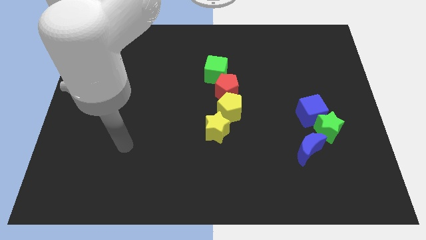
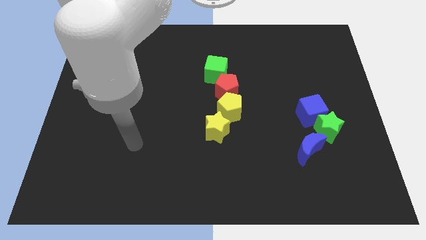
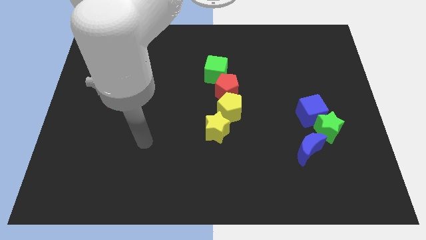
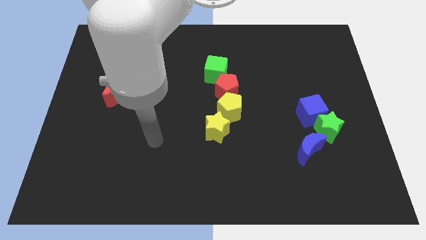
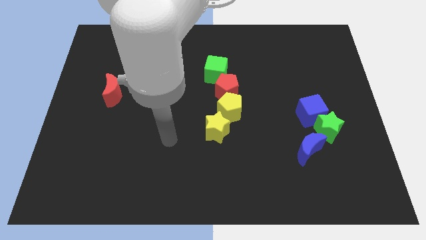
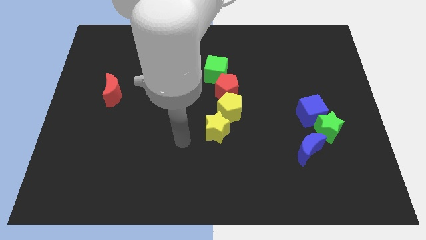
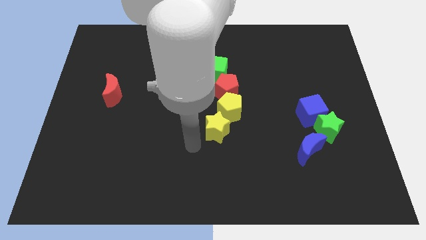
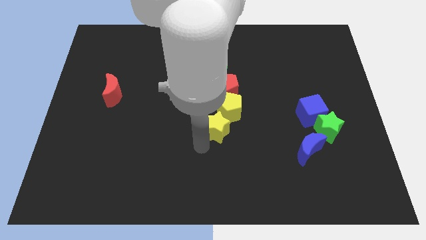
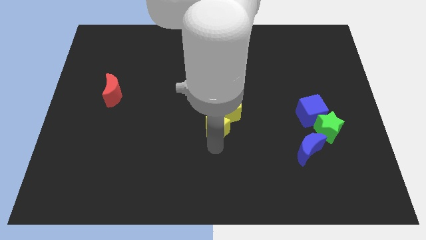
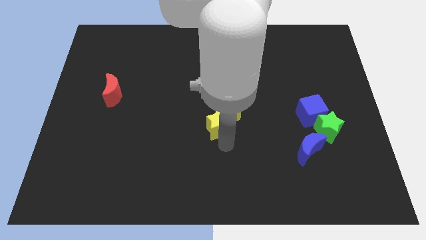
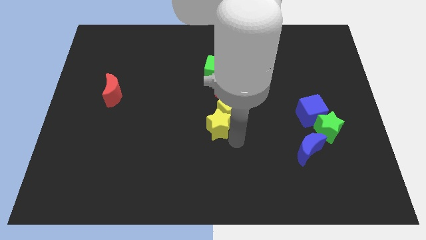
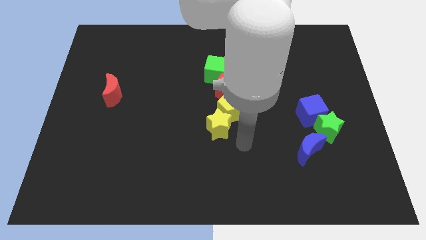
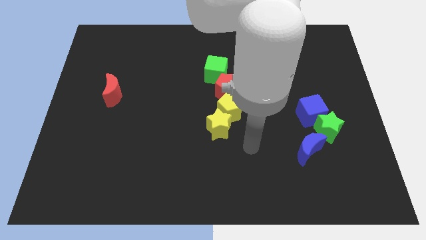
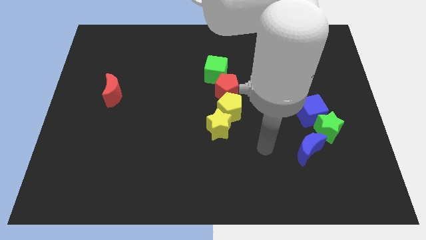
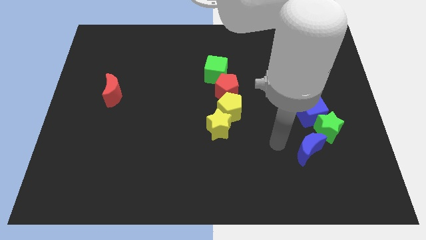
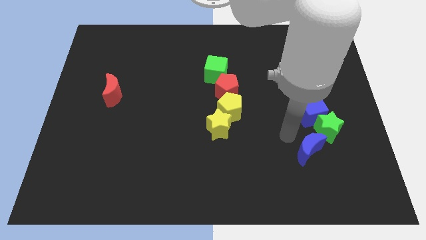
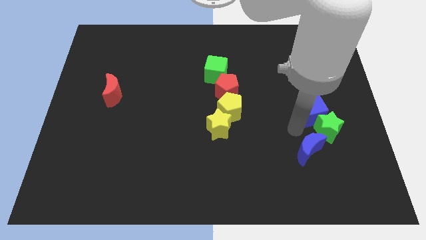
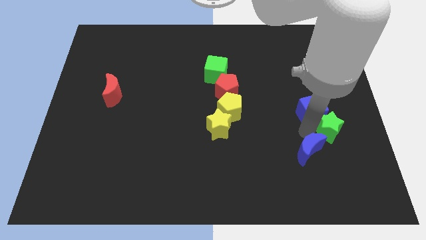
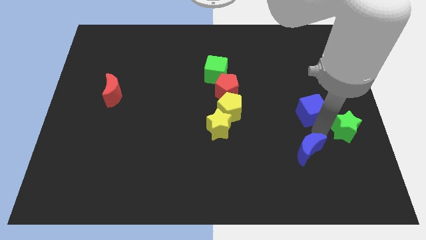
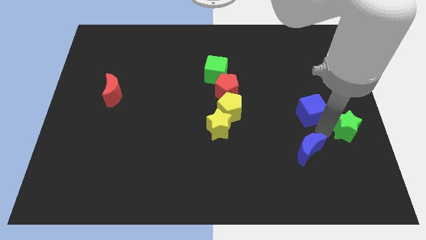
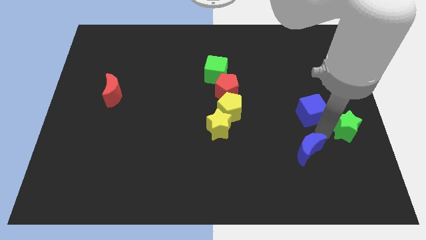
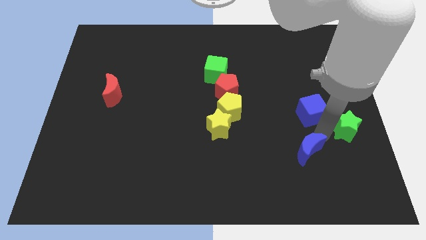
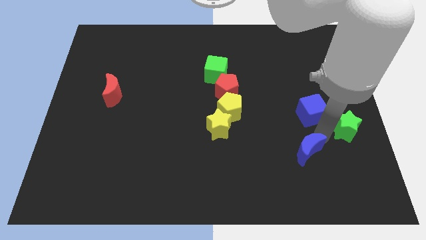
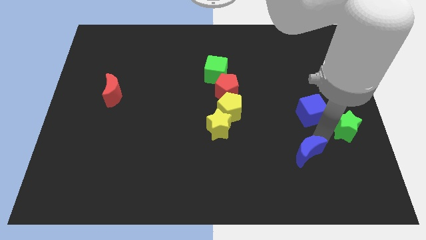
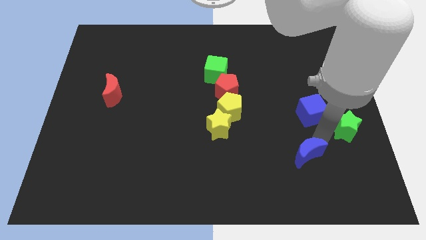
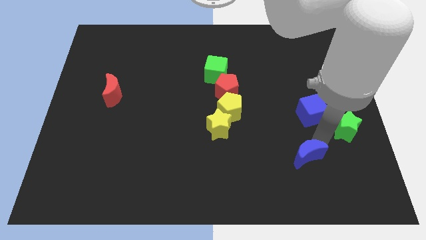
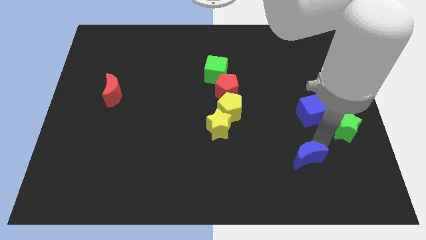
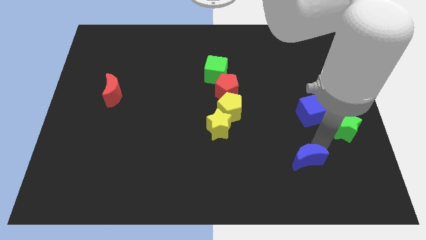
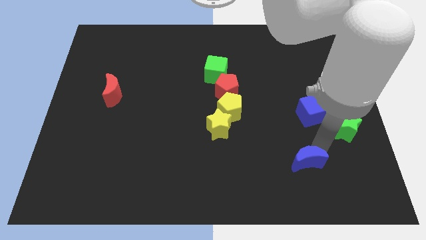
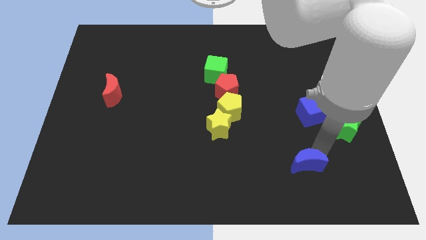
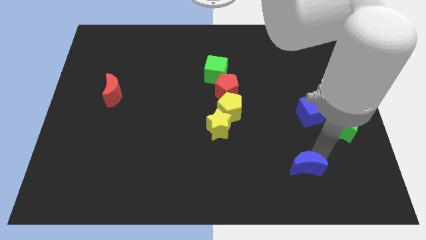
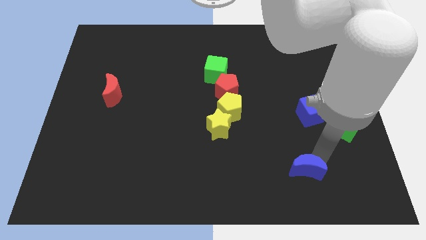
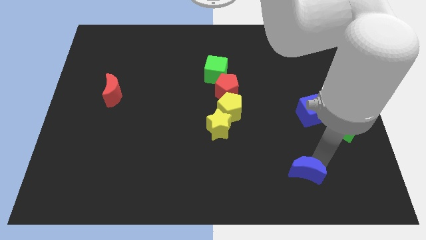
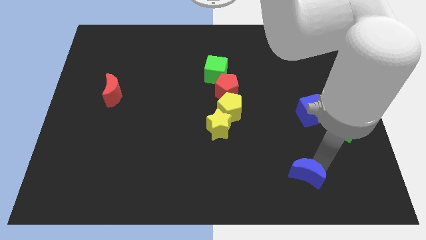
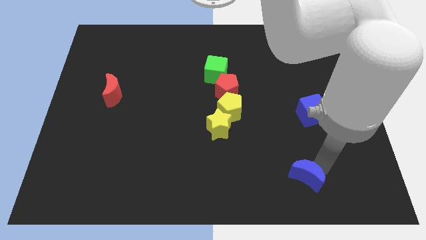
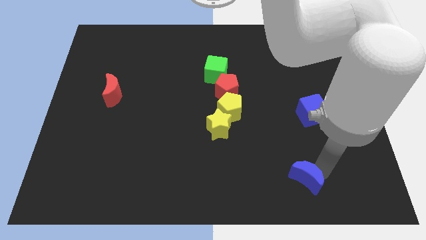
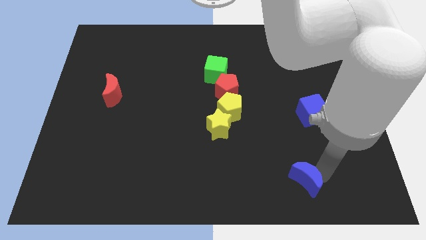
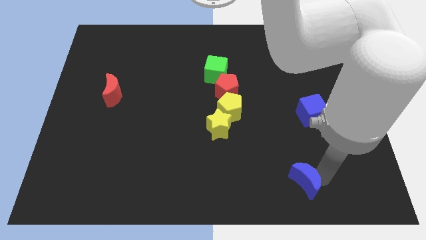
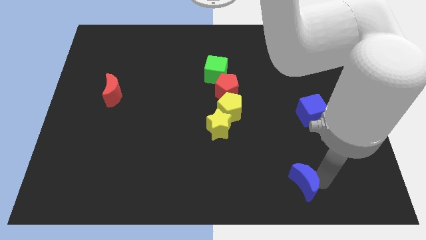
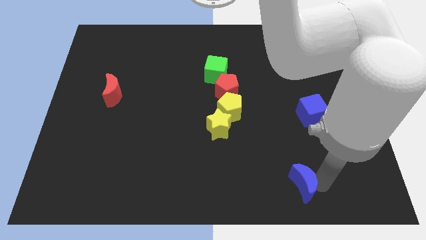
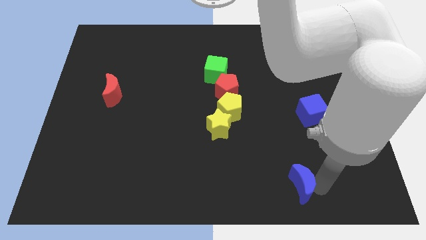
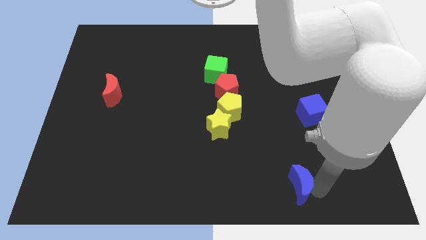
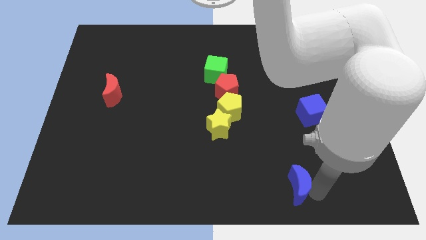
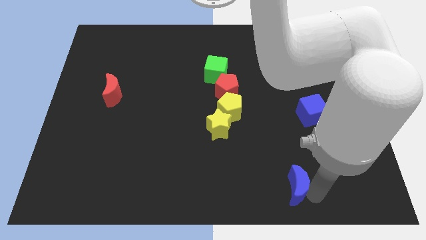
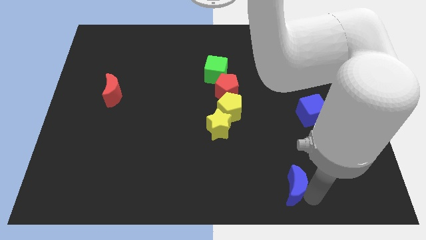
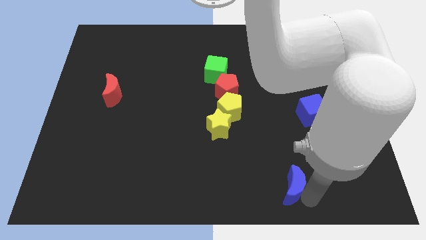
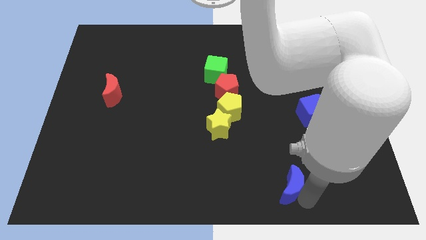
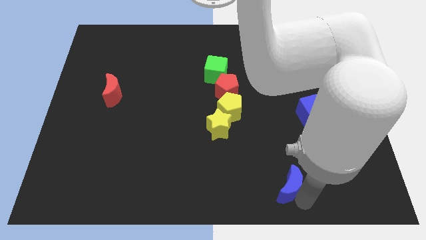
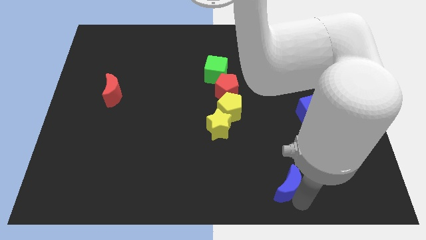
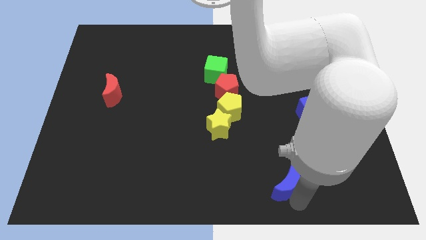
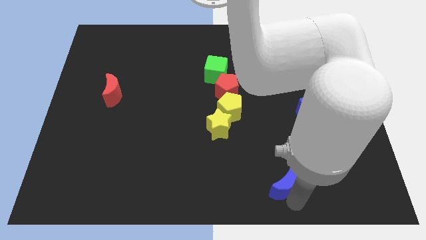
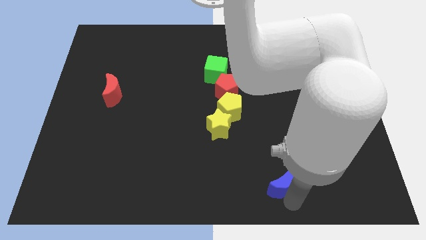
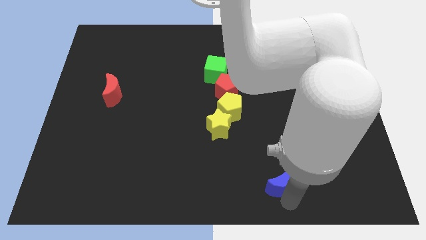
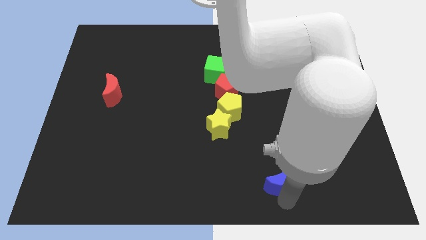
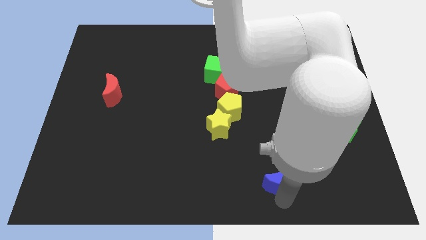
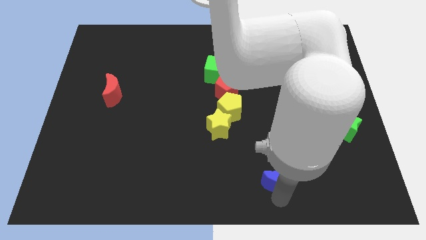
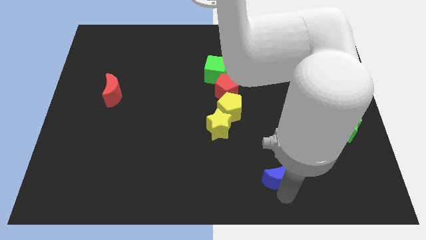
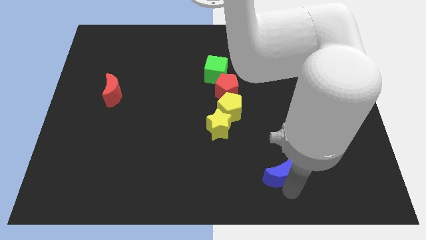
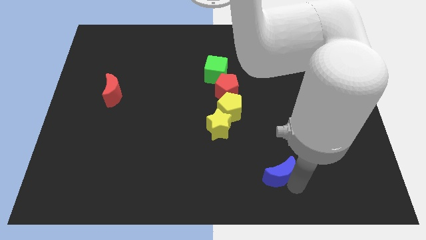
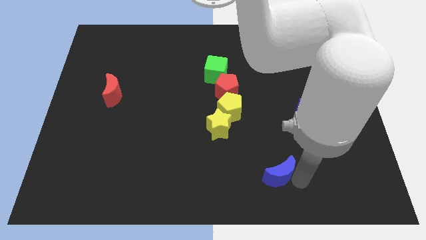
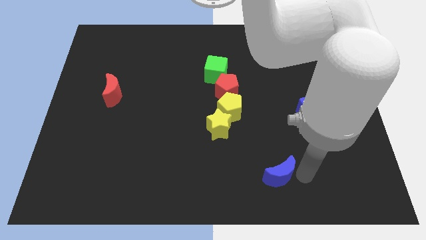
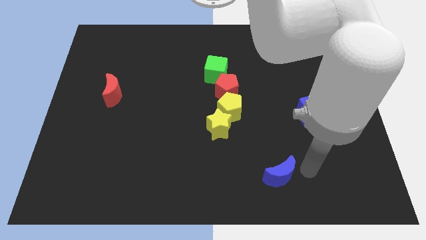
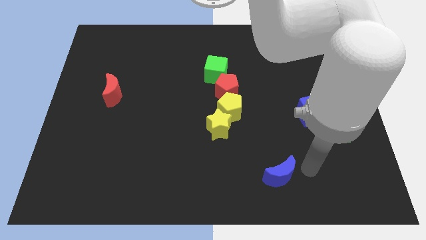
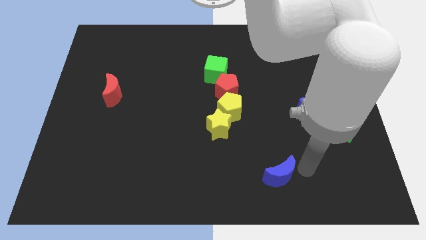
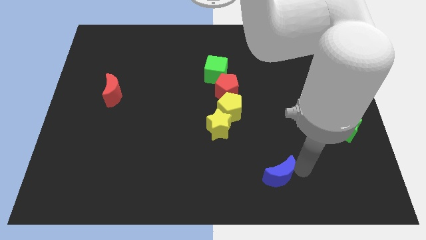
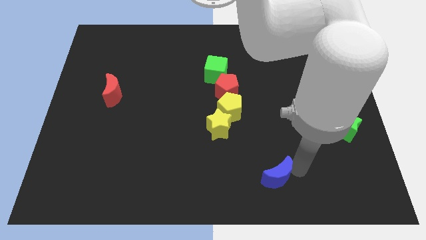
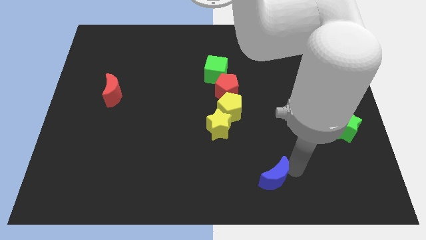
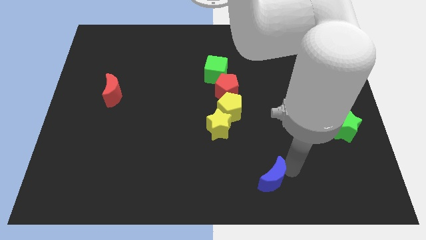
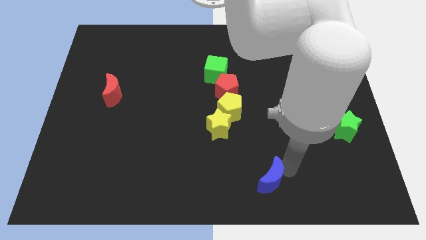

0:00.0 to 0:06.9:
push the blue moon to the bottom side

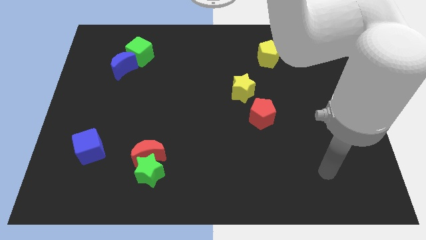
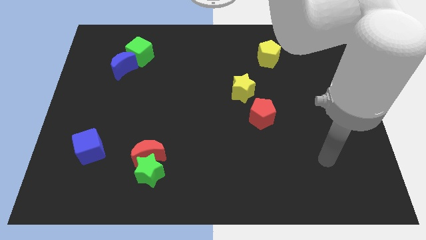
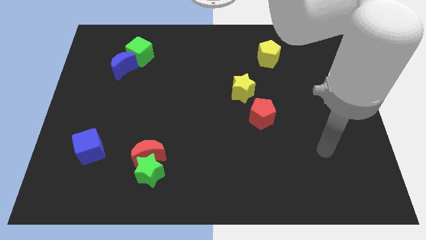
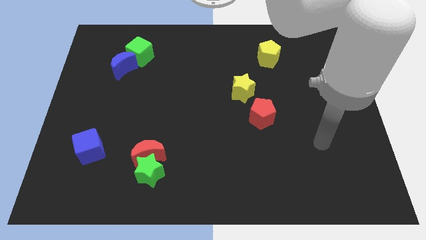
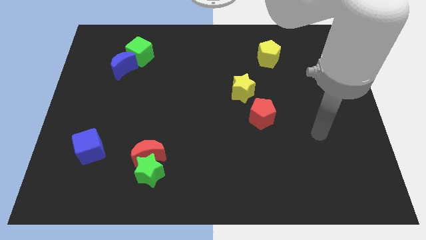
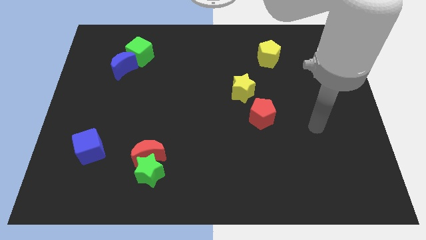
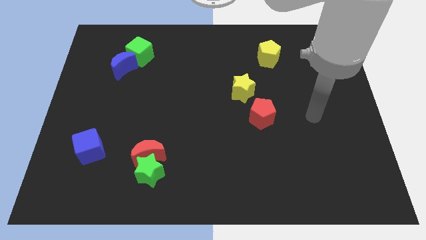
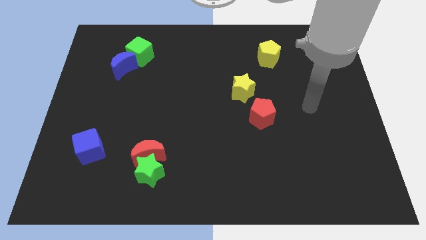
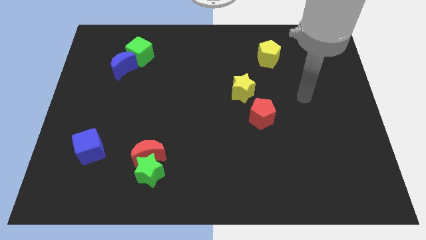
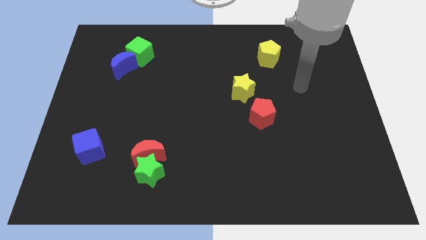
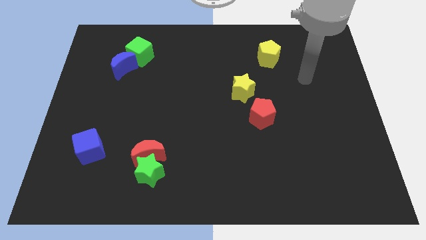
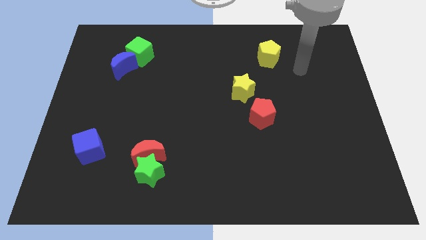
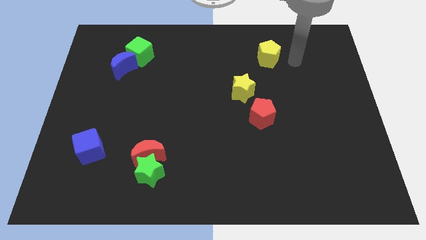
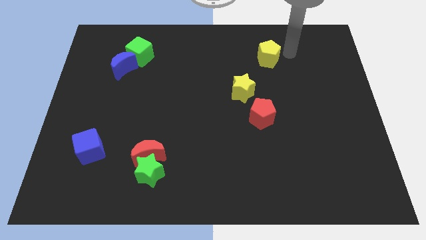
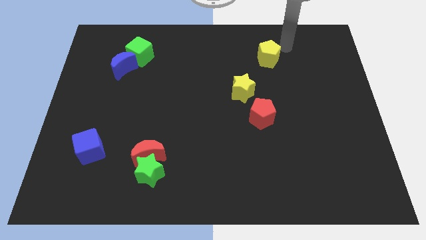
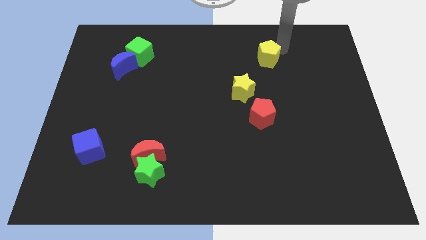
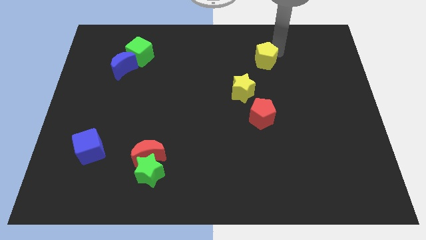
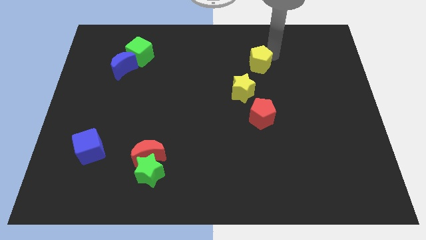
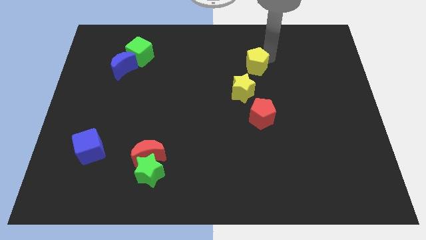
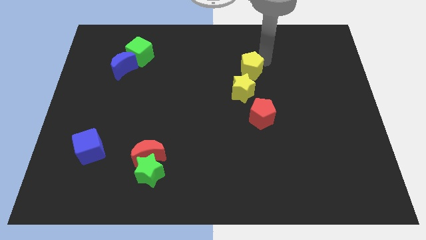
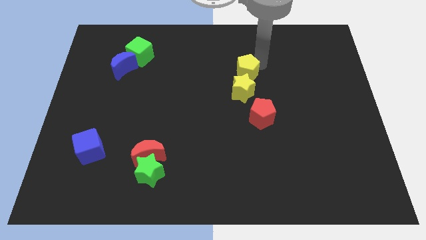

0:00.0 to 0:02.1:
put the yellow pentagon to the middle of the board
